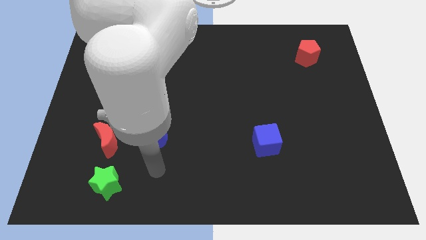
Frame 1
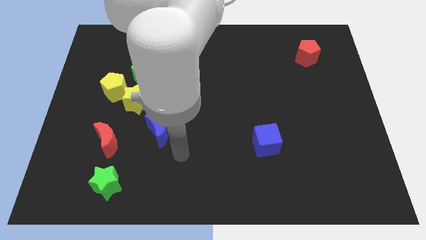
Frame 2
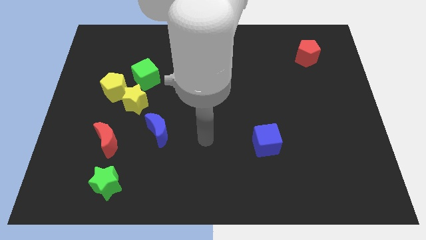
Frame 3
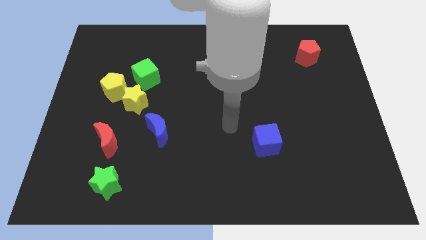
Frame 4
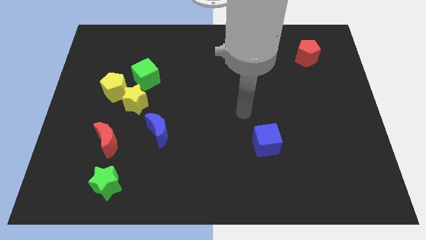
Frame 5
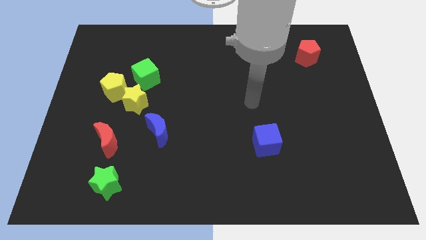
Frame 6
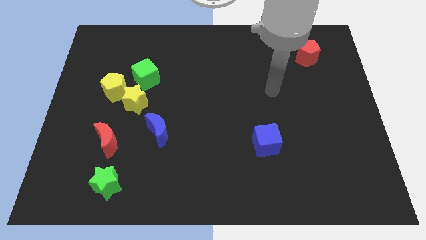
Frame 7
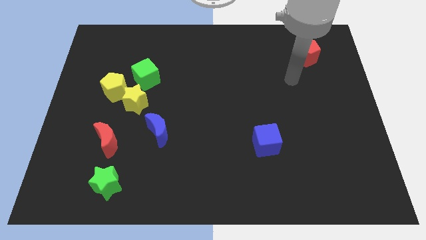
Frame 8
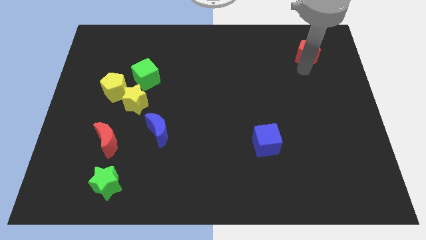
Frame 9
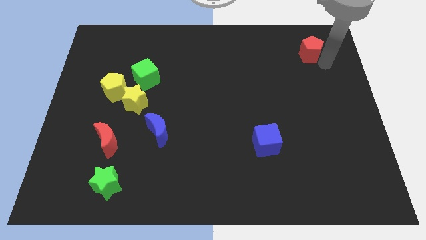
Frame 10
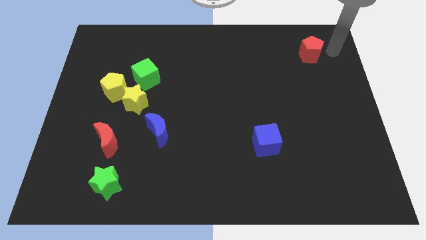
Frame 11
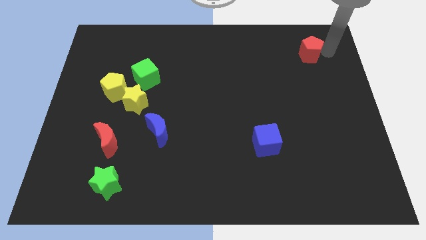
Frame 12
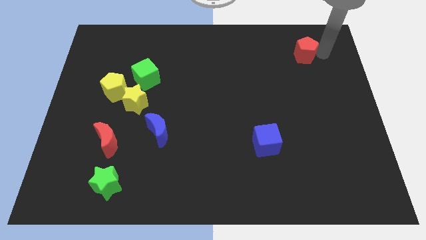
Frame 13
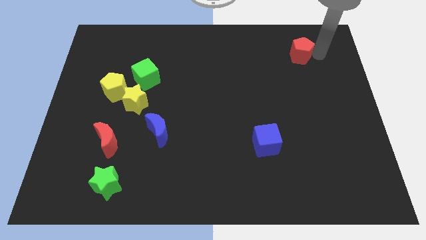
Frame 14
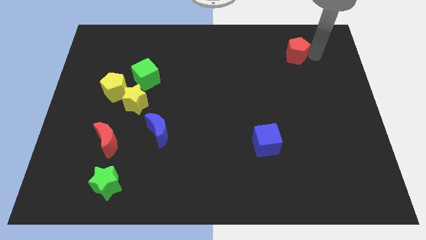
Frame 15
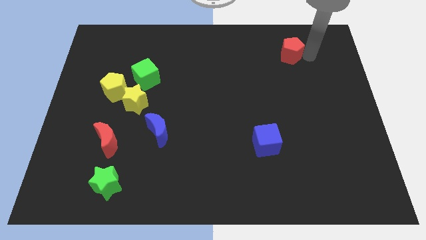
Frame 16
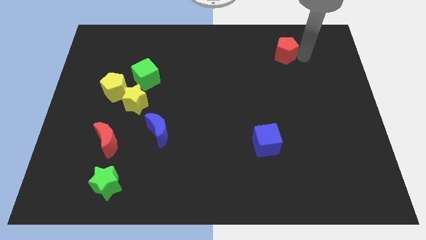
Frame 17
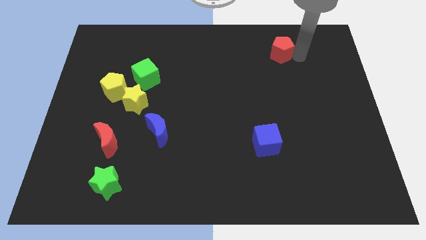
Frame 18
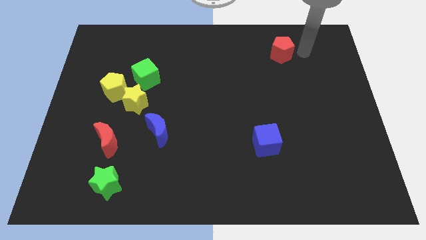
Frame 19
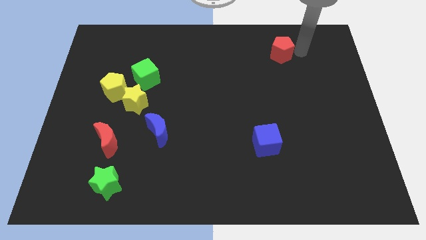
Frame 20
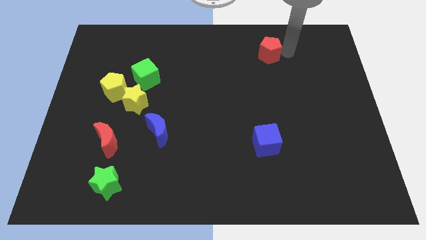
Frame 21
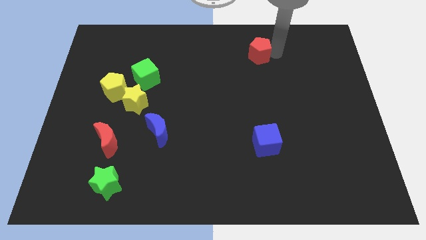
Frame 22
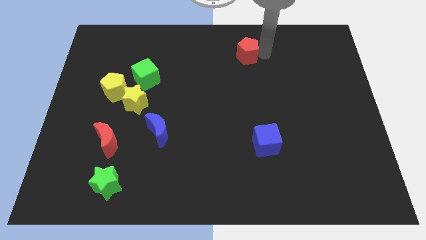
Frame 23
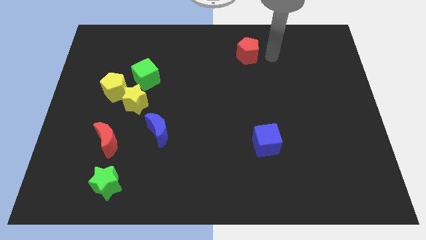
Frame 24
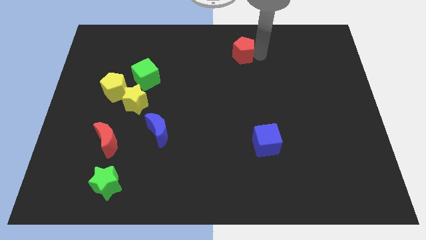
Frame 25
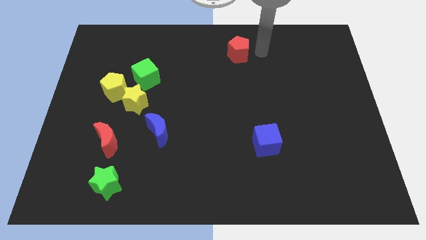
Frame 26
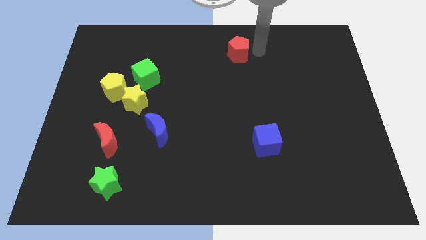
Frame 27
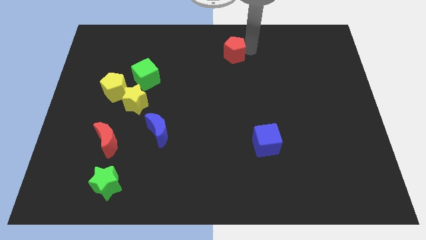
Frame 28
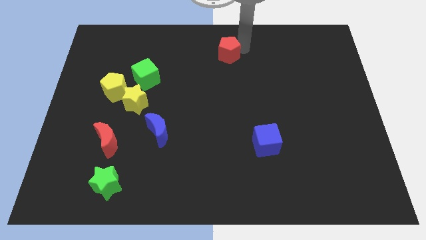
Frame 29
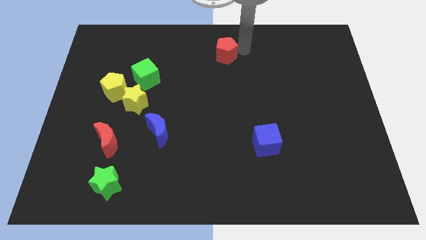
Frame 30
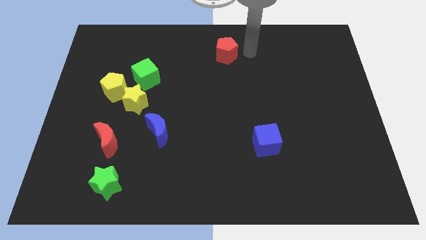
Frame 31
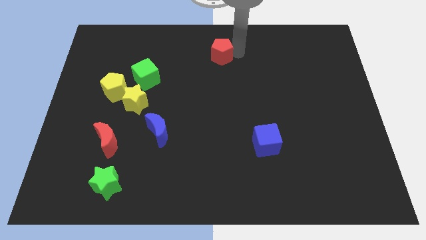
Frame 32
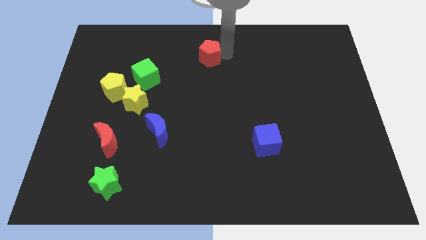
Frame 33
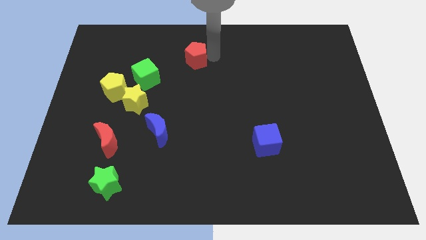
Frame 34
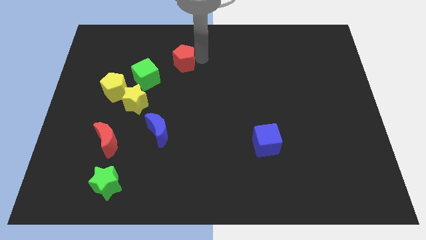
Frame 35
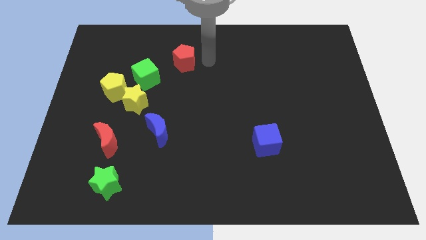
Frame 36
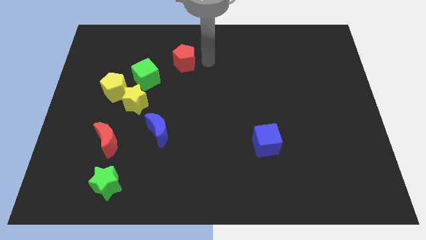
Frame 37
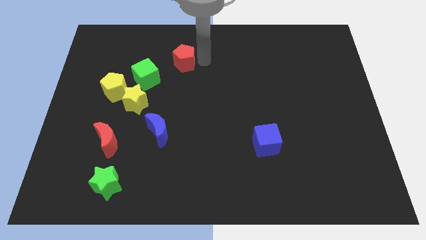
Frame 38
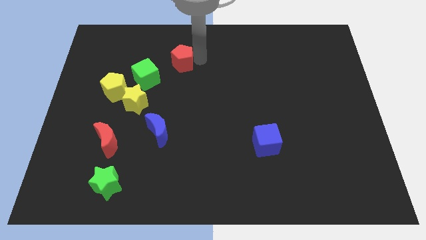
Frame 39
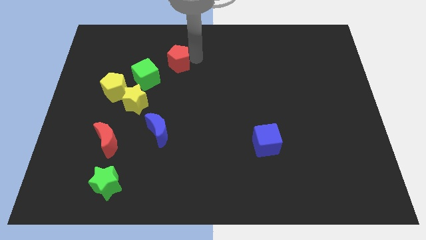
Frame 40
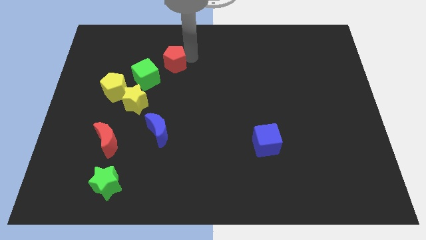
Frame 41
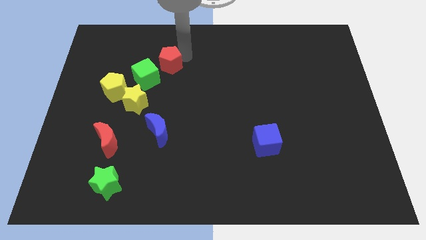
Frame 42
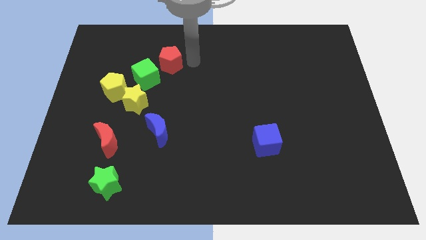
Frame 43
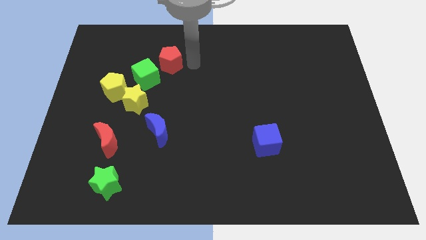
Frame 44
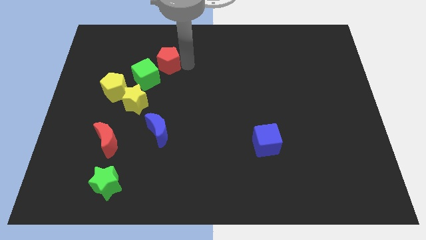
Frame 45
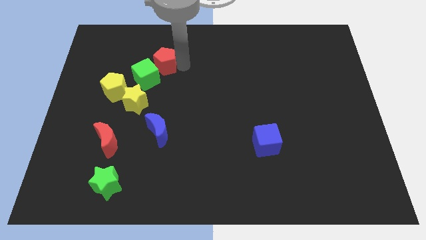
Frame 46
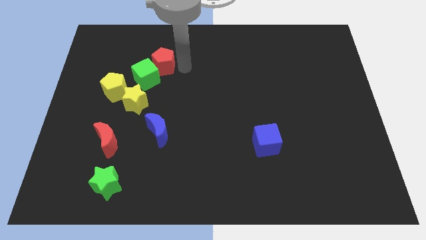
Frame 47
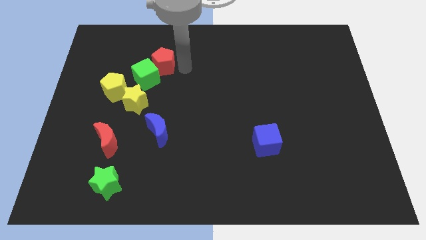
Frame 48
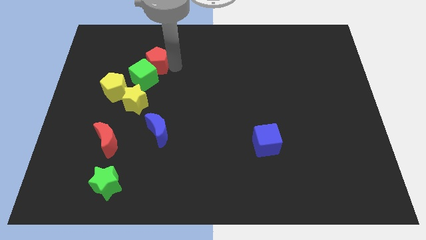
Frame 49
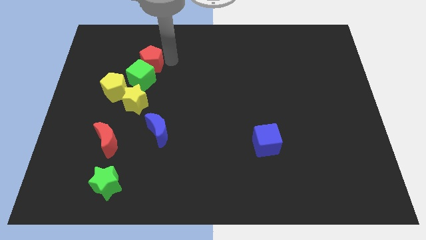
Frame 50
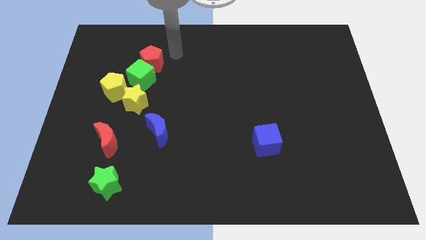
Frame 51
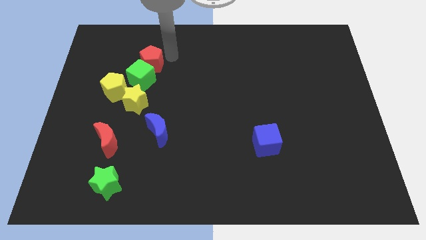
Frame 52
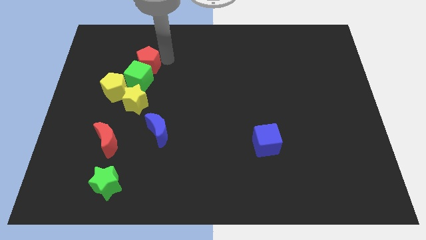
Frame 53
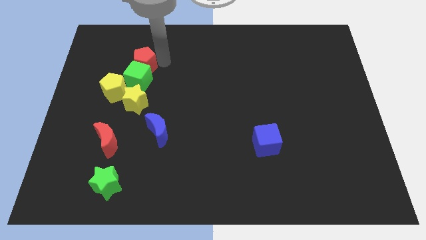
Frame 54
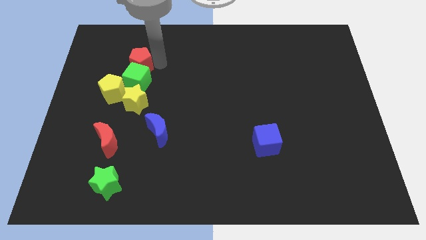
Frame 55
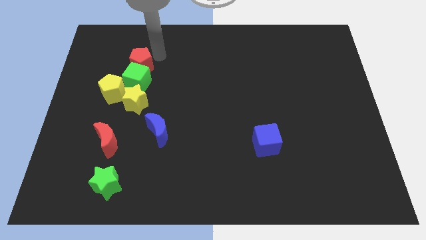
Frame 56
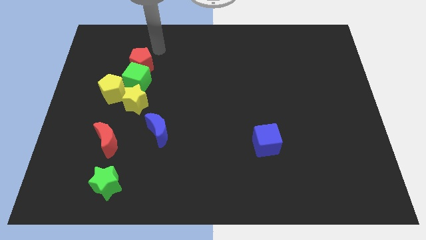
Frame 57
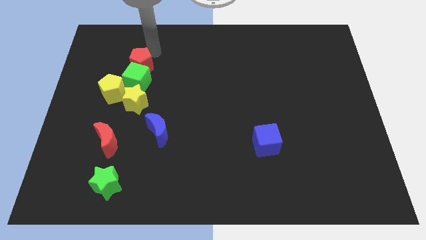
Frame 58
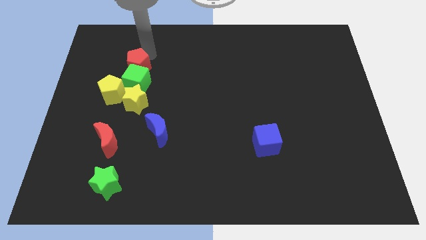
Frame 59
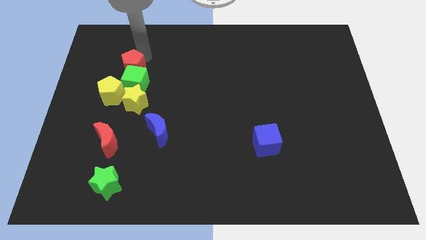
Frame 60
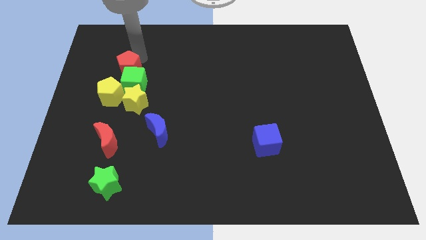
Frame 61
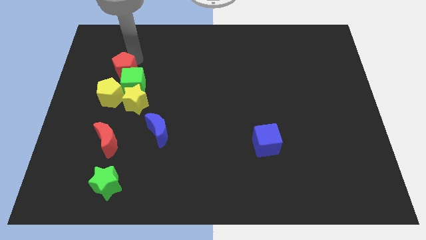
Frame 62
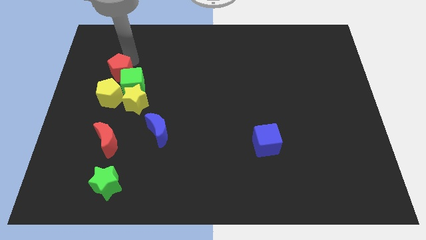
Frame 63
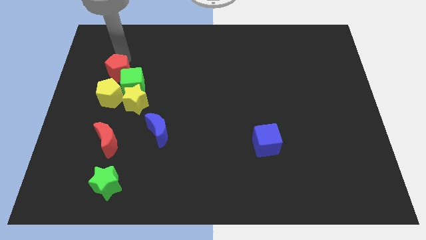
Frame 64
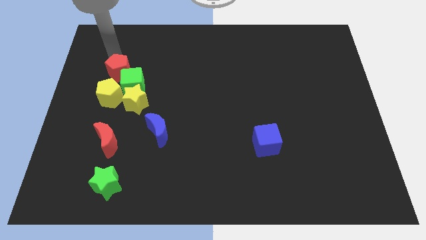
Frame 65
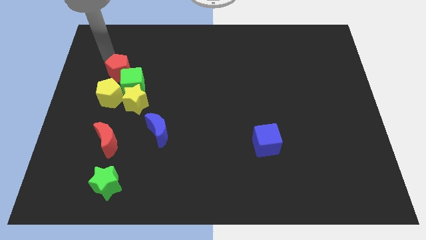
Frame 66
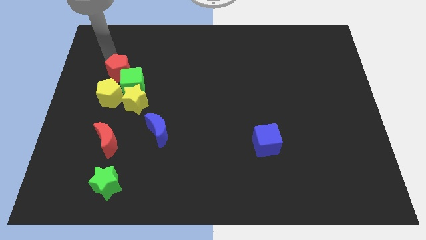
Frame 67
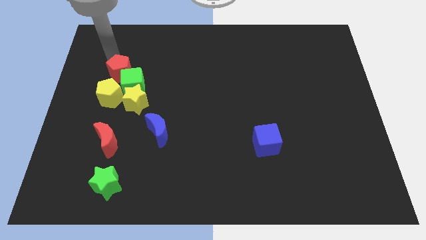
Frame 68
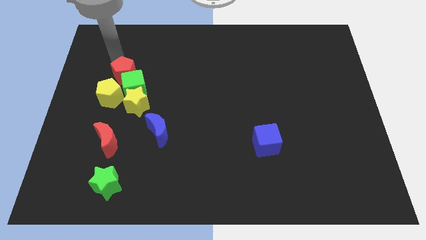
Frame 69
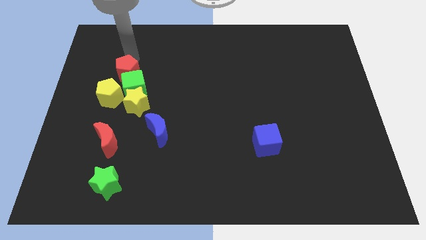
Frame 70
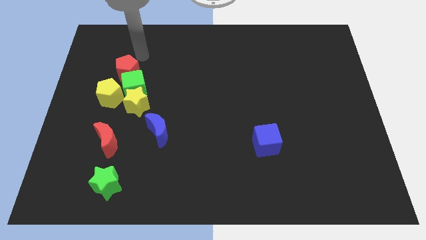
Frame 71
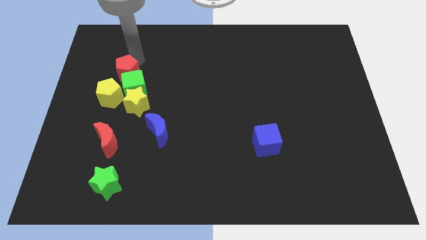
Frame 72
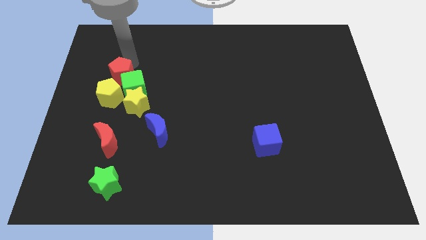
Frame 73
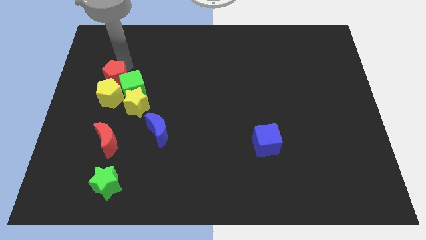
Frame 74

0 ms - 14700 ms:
put the red pentagon to the yellow pentagon

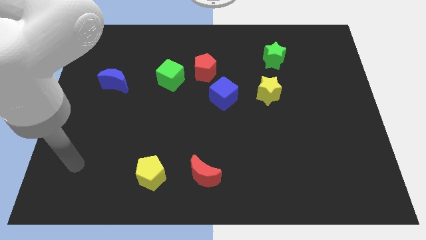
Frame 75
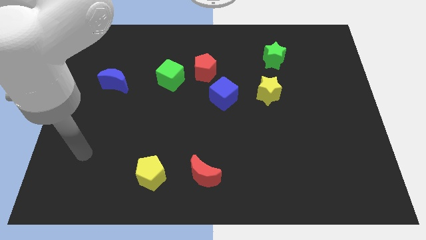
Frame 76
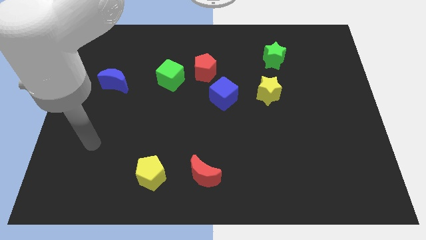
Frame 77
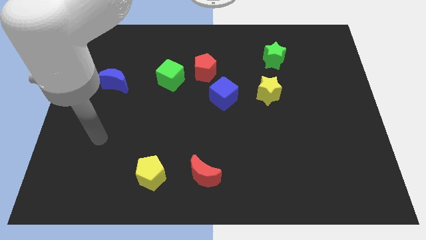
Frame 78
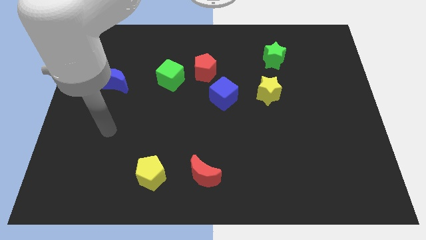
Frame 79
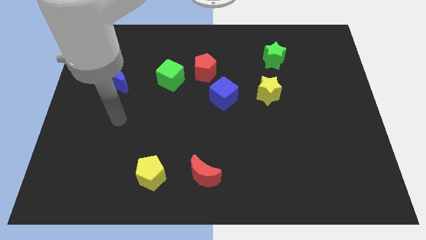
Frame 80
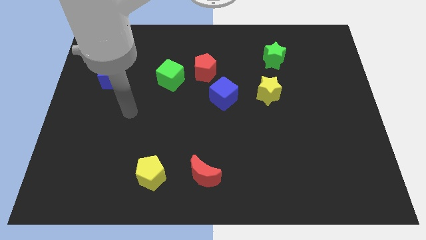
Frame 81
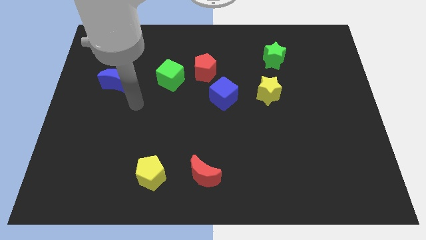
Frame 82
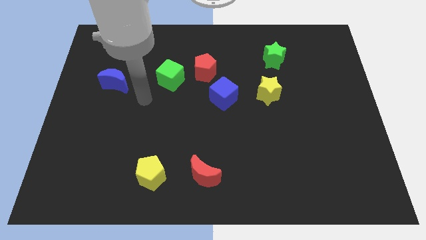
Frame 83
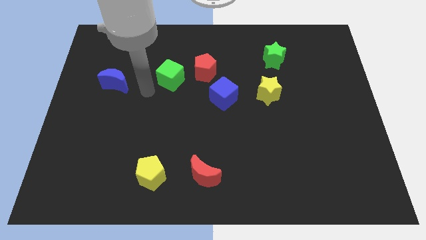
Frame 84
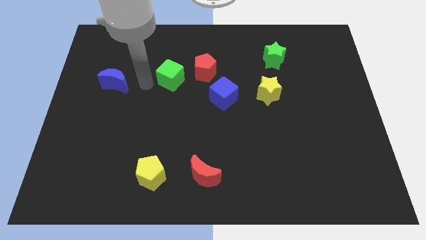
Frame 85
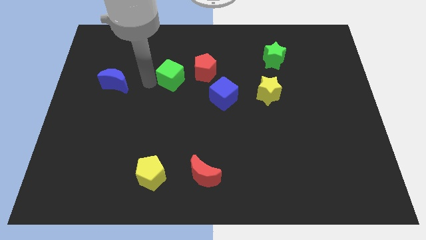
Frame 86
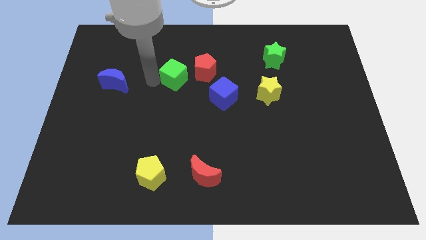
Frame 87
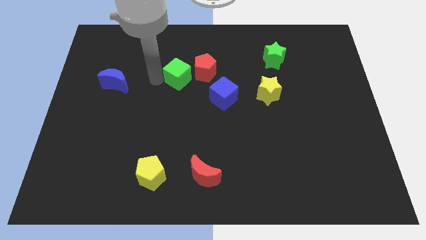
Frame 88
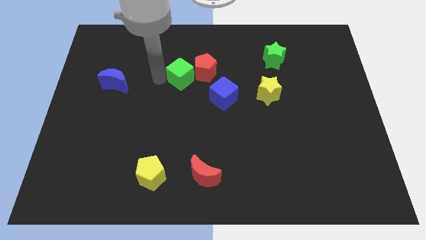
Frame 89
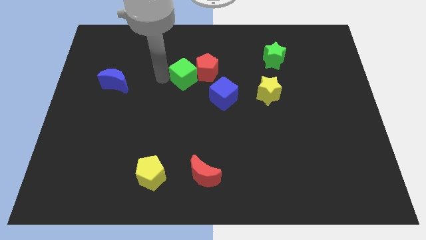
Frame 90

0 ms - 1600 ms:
push the green cube towards the red pentagon
